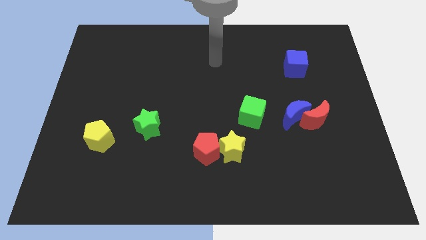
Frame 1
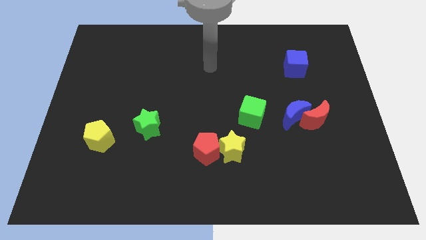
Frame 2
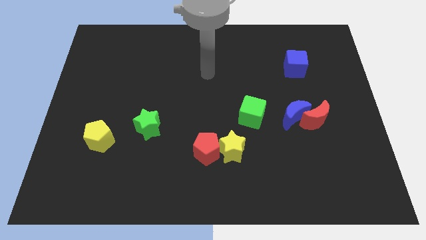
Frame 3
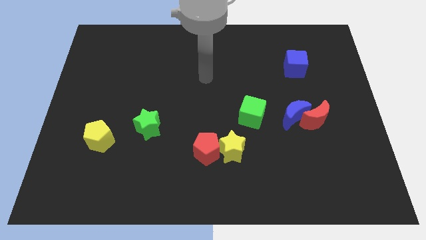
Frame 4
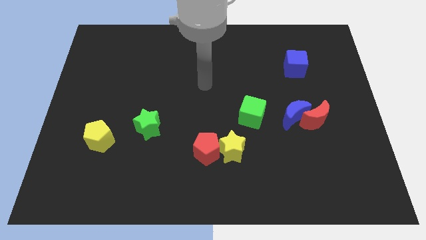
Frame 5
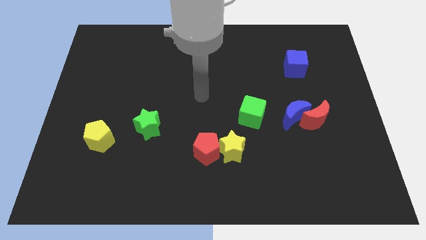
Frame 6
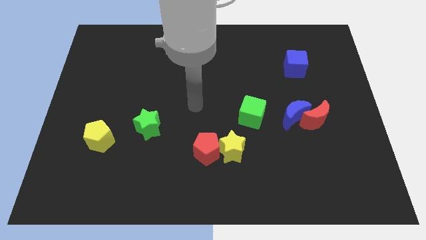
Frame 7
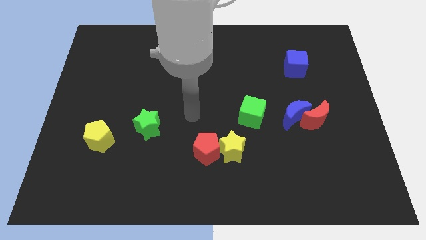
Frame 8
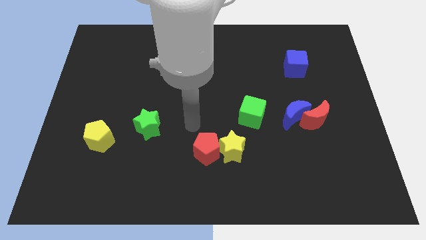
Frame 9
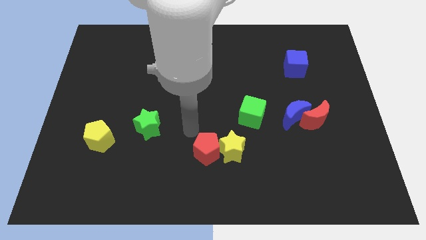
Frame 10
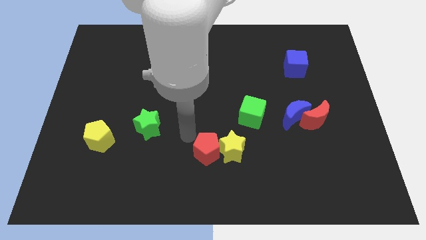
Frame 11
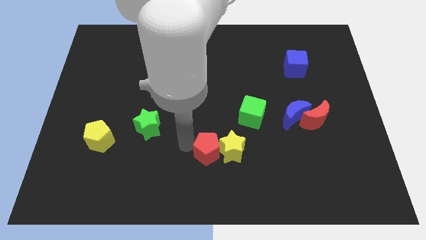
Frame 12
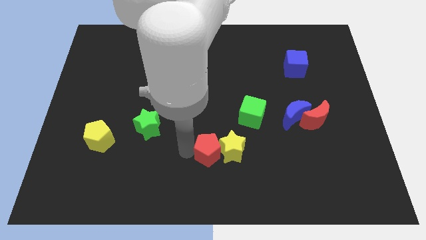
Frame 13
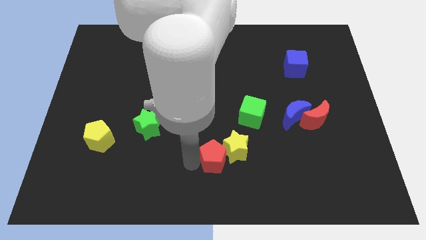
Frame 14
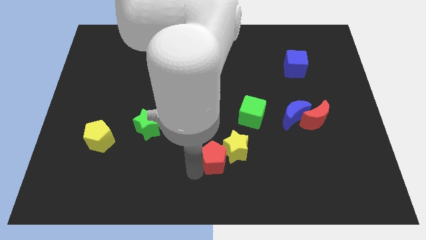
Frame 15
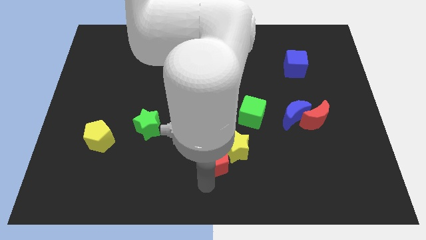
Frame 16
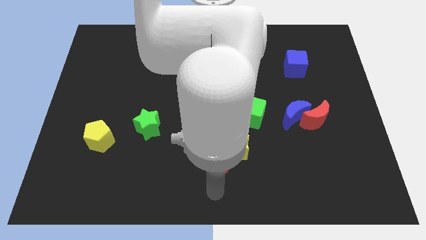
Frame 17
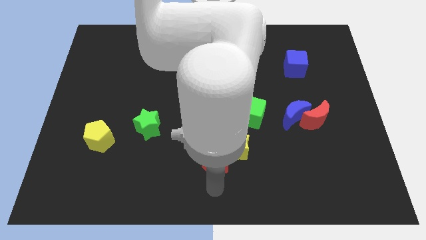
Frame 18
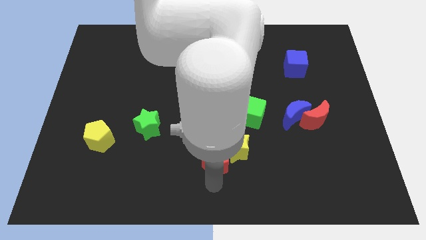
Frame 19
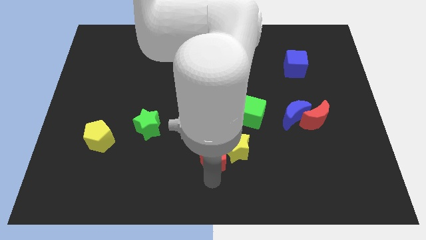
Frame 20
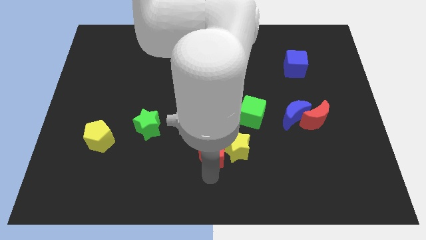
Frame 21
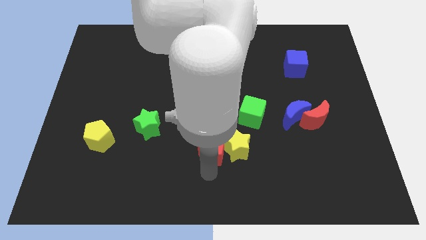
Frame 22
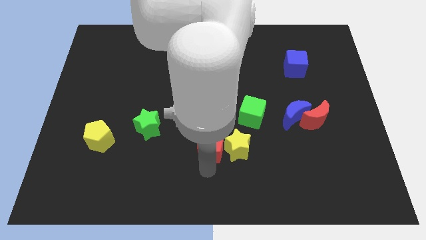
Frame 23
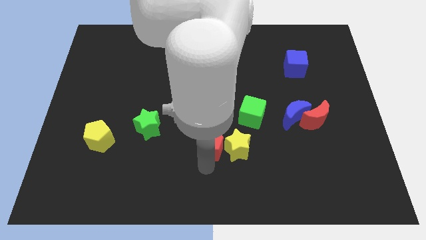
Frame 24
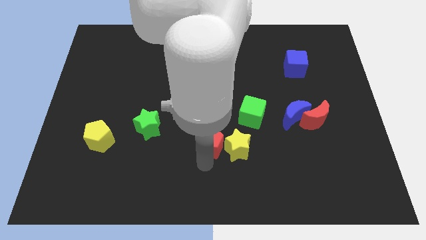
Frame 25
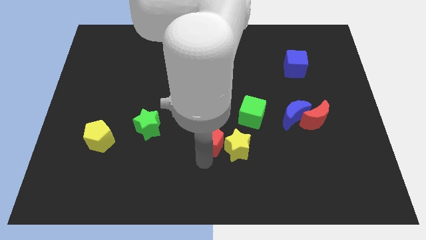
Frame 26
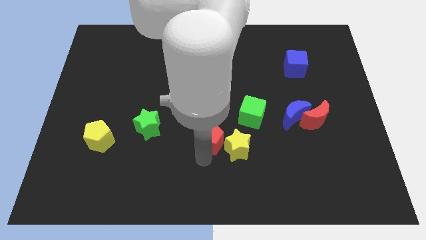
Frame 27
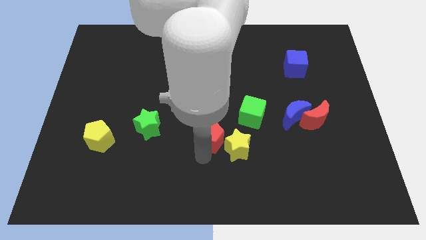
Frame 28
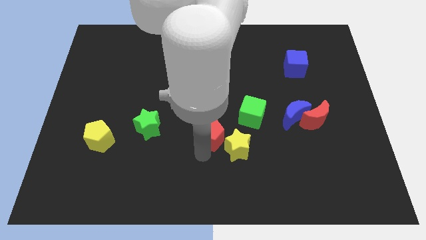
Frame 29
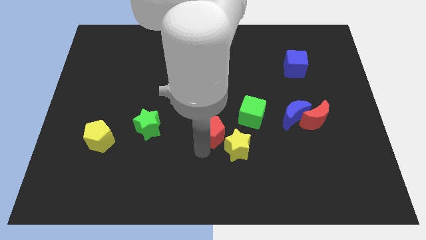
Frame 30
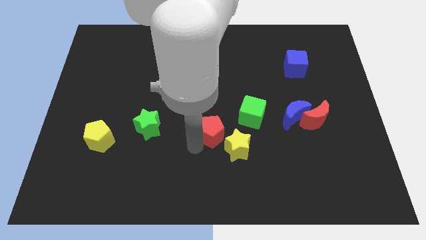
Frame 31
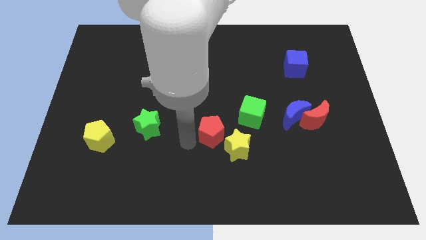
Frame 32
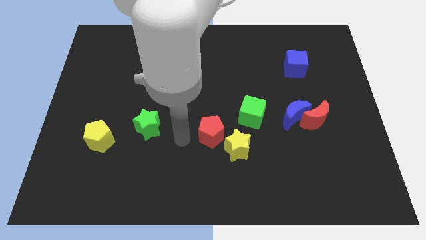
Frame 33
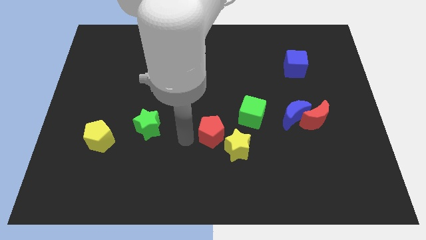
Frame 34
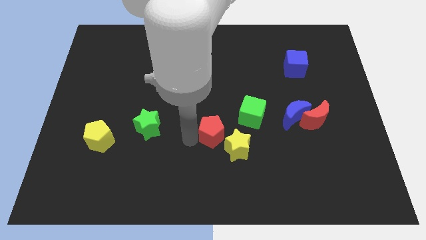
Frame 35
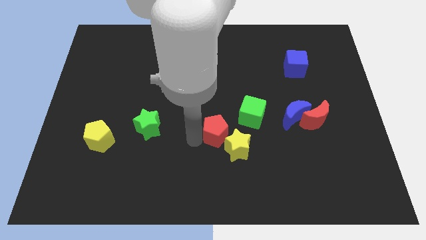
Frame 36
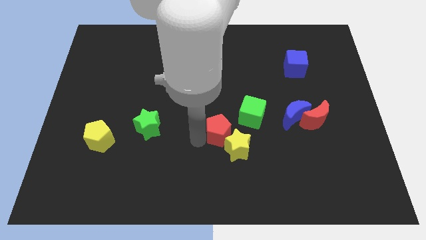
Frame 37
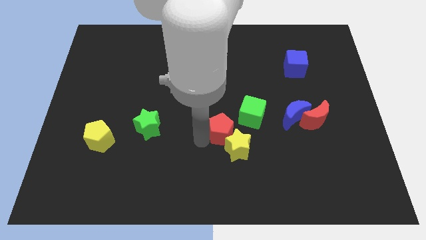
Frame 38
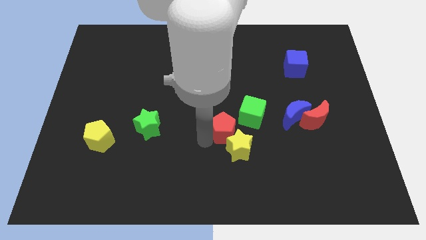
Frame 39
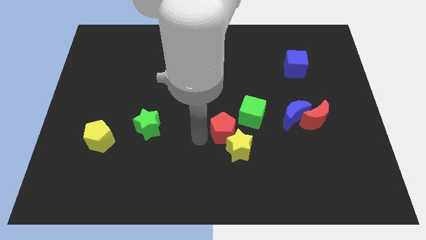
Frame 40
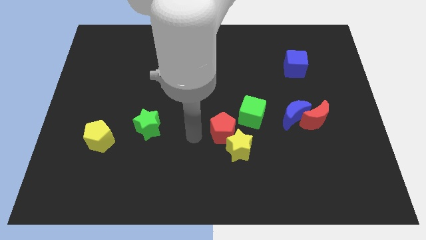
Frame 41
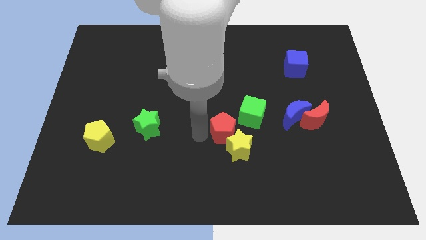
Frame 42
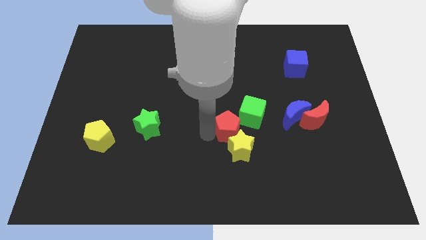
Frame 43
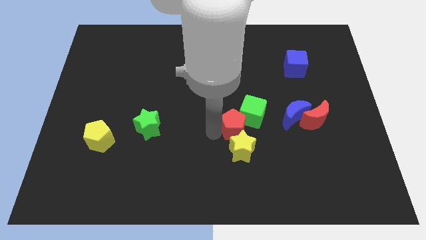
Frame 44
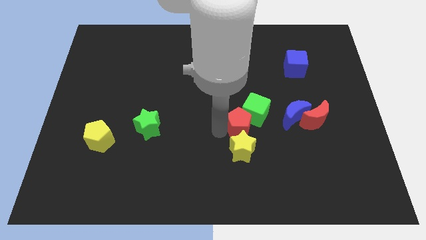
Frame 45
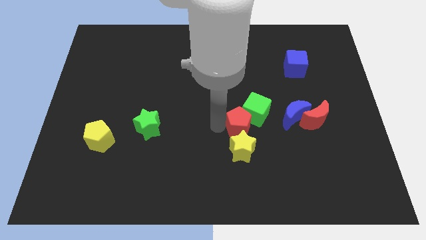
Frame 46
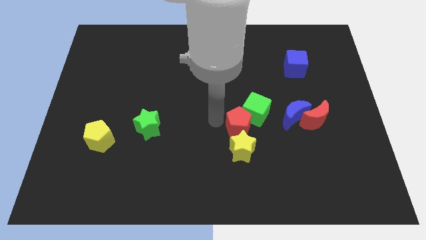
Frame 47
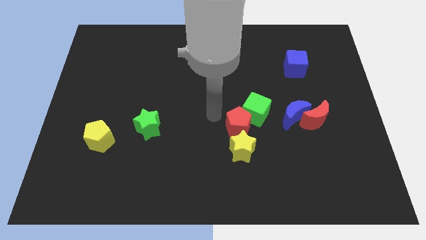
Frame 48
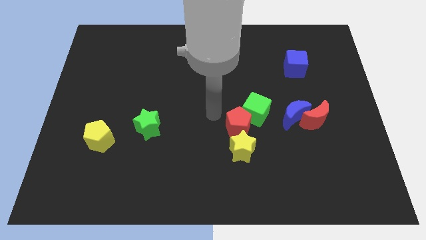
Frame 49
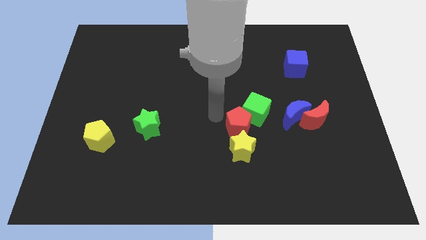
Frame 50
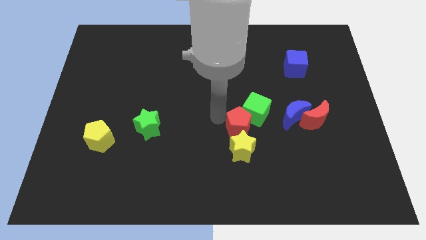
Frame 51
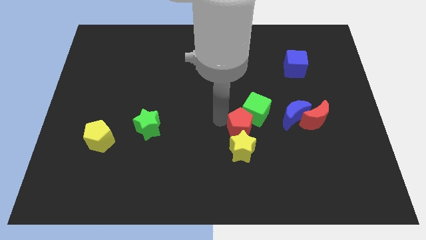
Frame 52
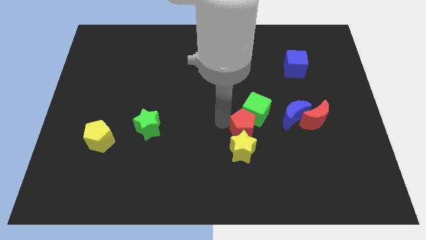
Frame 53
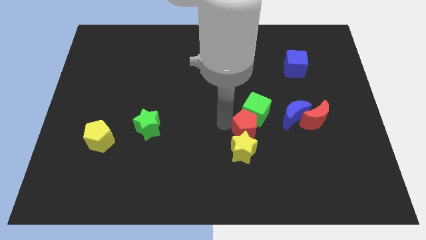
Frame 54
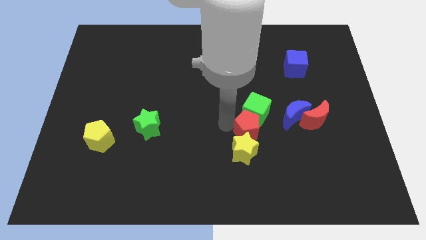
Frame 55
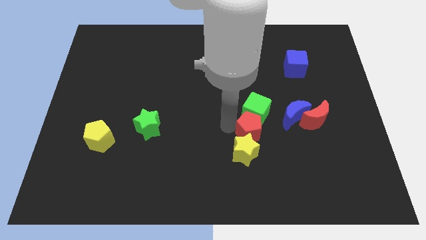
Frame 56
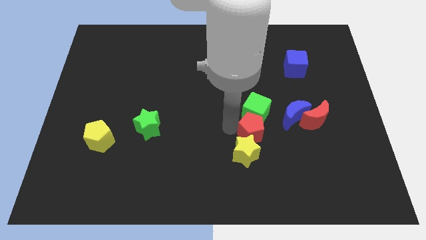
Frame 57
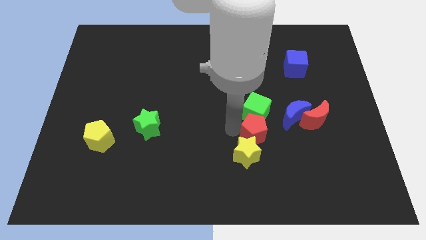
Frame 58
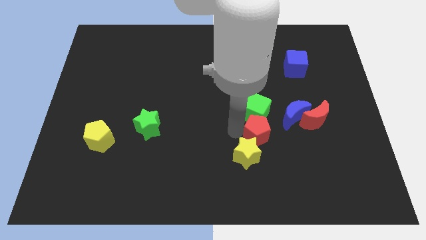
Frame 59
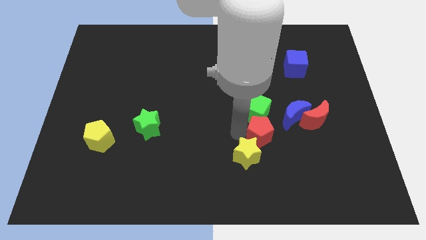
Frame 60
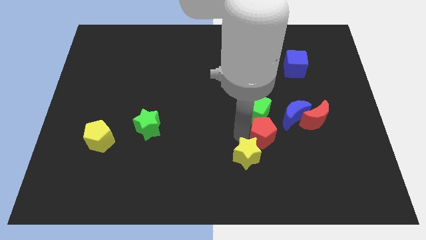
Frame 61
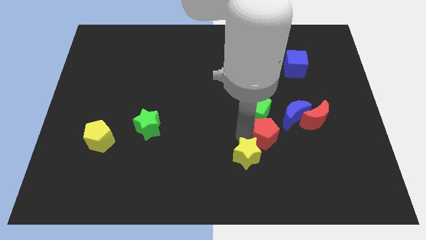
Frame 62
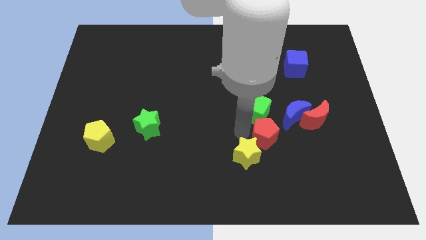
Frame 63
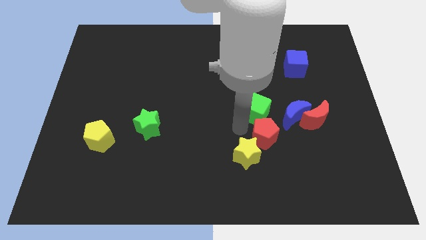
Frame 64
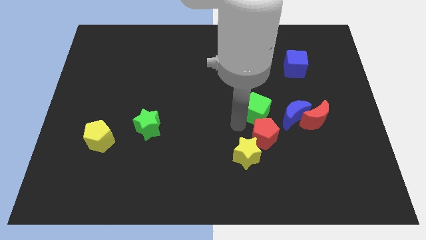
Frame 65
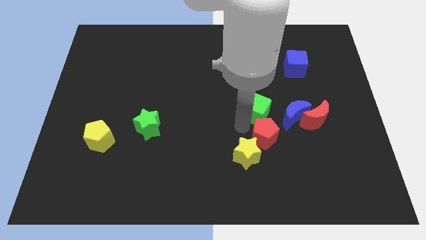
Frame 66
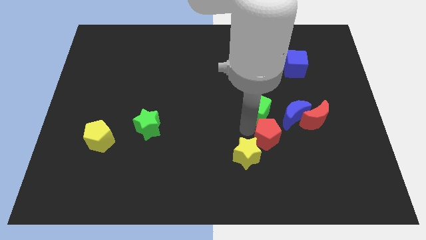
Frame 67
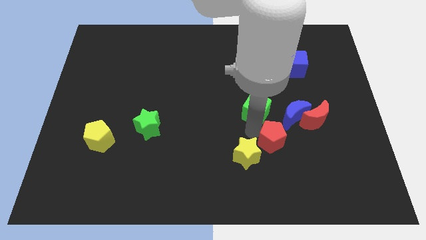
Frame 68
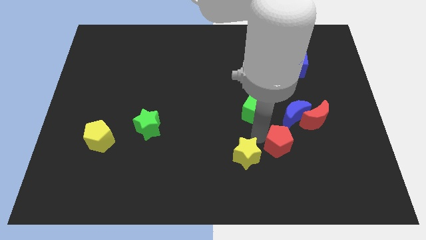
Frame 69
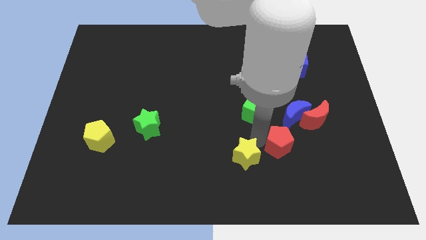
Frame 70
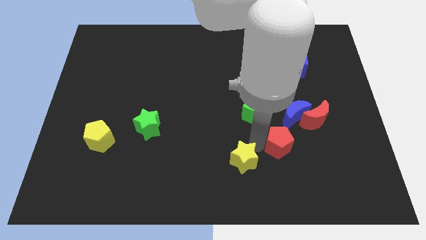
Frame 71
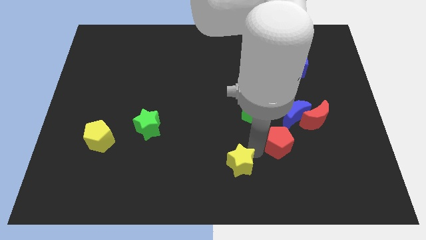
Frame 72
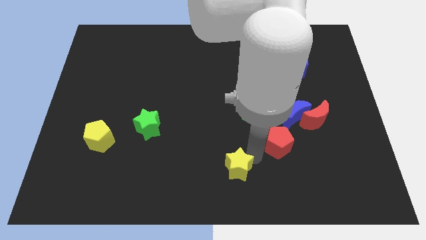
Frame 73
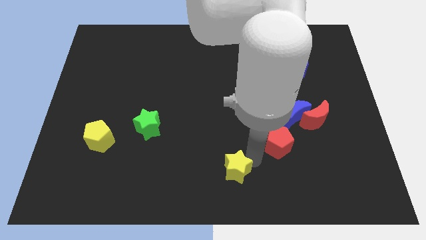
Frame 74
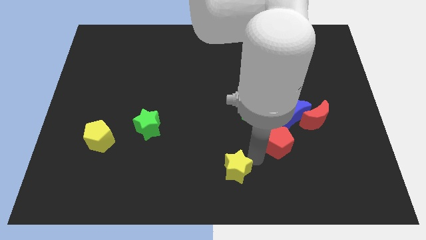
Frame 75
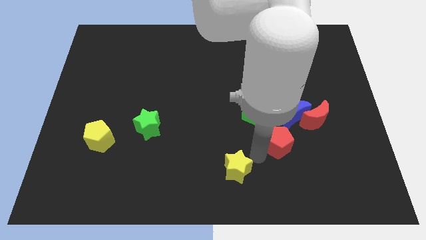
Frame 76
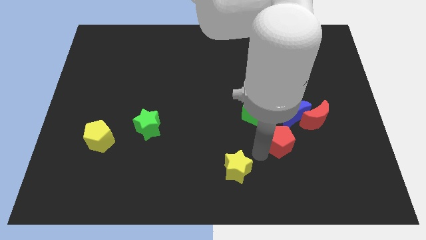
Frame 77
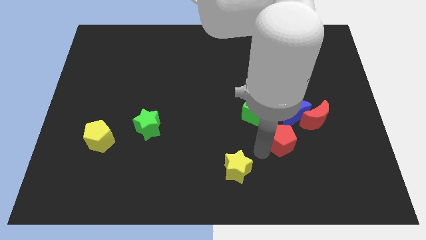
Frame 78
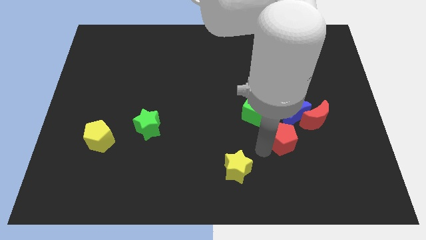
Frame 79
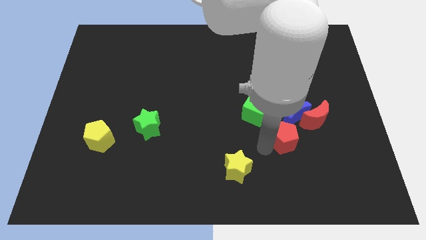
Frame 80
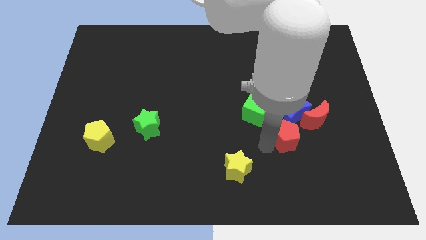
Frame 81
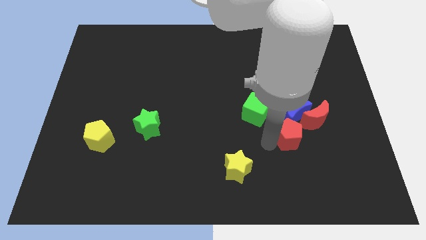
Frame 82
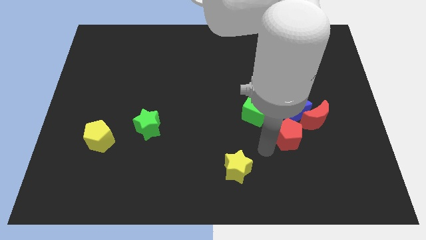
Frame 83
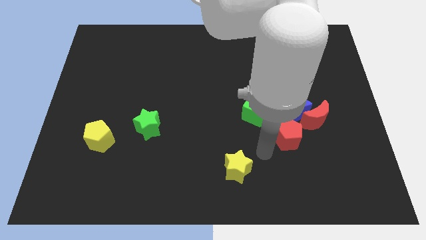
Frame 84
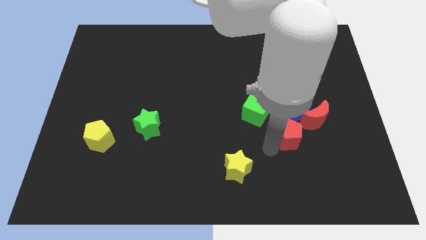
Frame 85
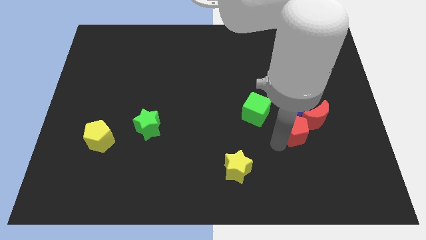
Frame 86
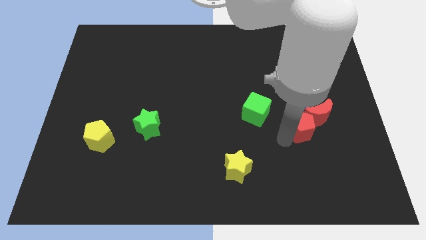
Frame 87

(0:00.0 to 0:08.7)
move the red pentagon next to the red moon
